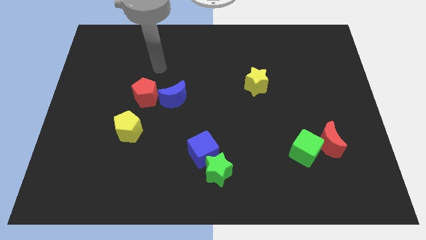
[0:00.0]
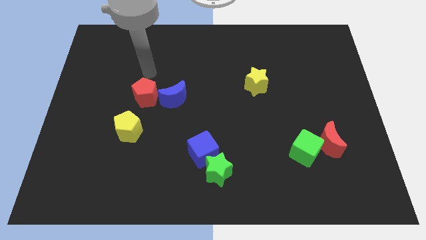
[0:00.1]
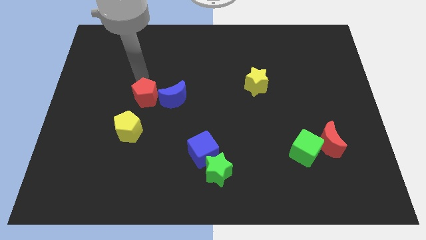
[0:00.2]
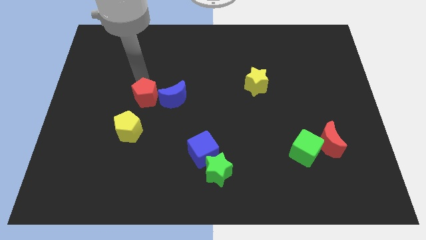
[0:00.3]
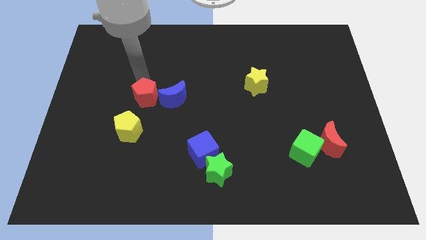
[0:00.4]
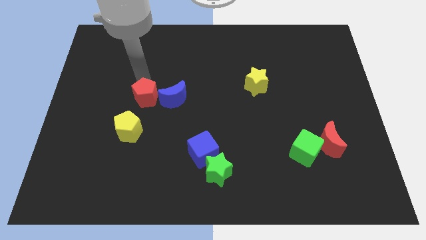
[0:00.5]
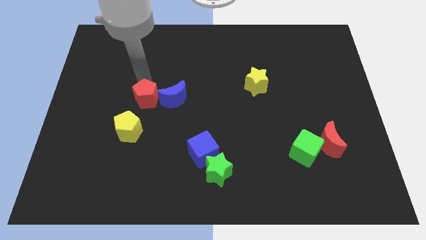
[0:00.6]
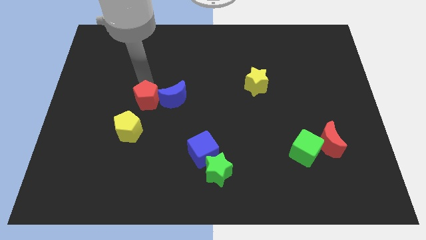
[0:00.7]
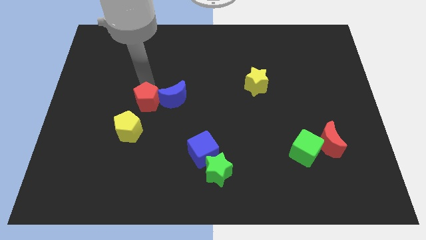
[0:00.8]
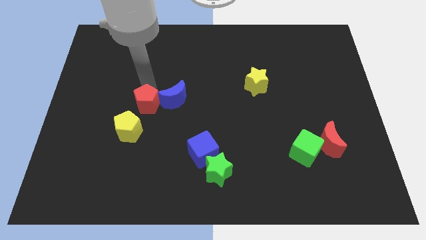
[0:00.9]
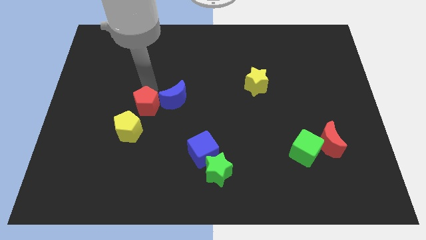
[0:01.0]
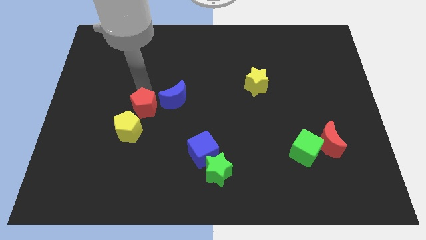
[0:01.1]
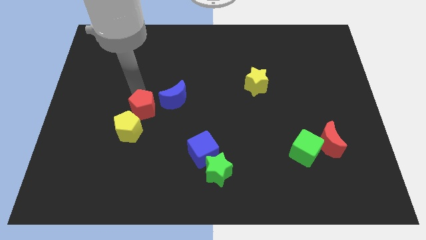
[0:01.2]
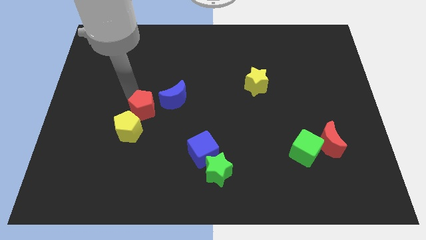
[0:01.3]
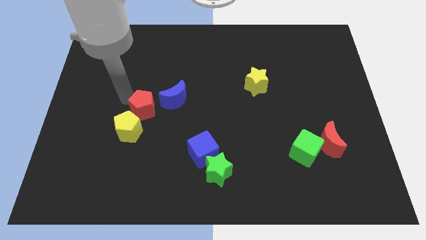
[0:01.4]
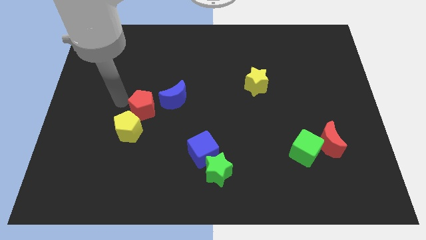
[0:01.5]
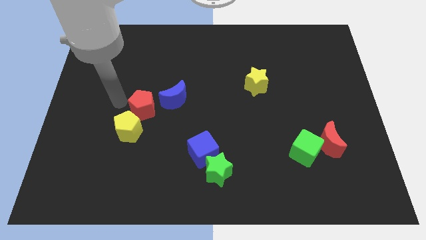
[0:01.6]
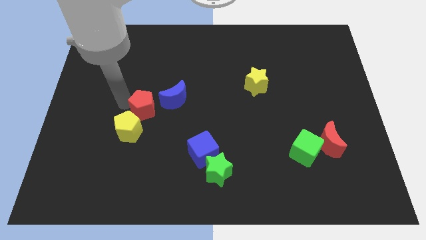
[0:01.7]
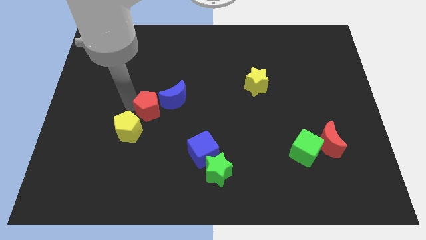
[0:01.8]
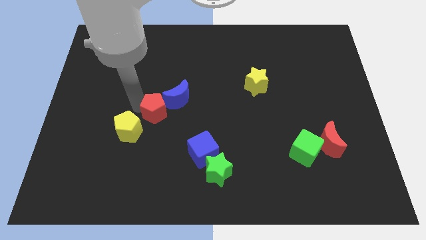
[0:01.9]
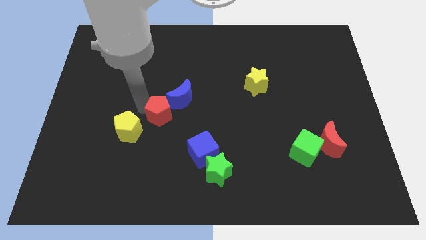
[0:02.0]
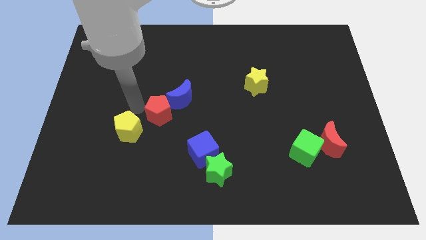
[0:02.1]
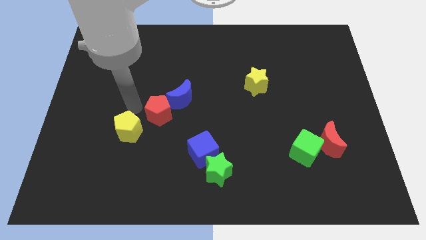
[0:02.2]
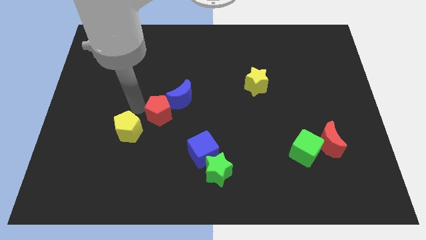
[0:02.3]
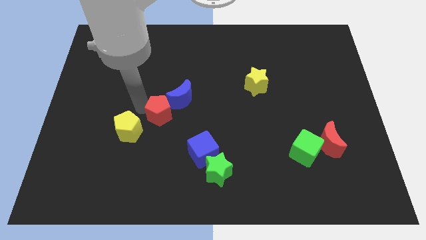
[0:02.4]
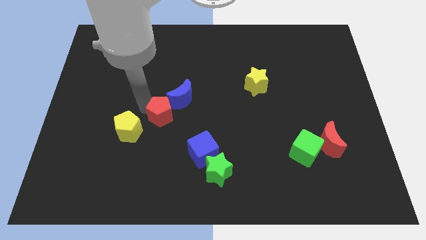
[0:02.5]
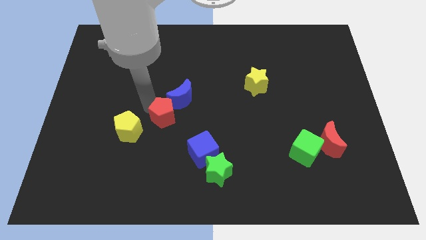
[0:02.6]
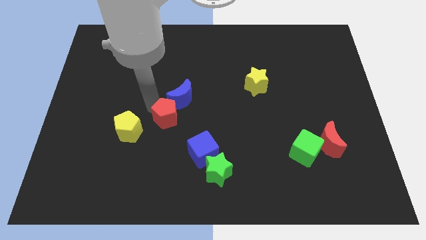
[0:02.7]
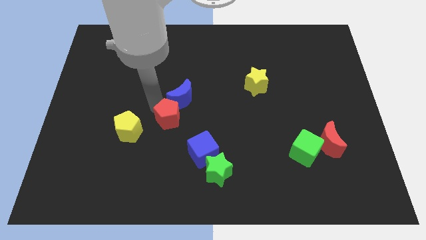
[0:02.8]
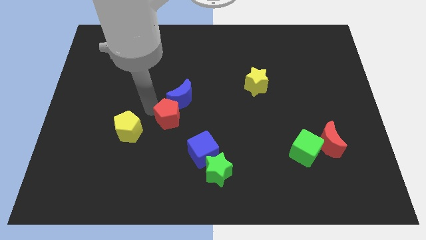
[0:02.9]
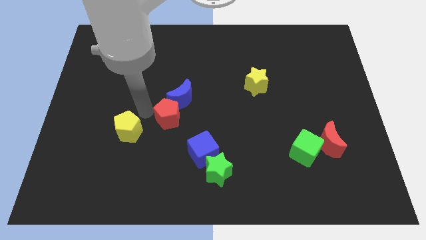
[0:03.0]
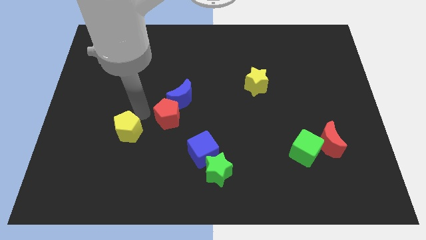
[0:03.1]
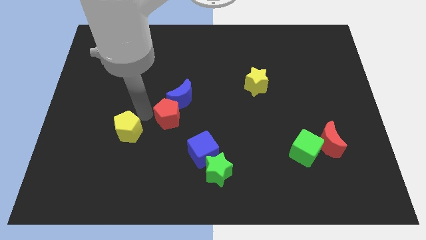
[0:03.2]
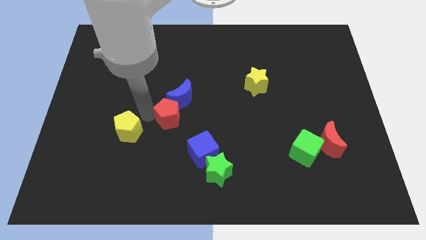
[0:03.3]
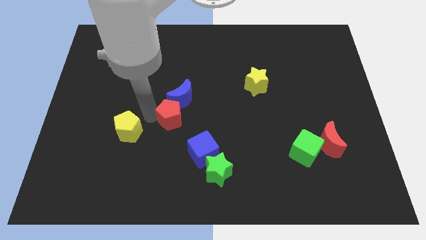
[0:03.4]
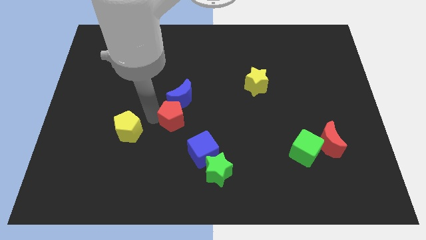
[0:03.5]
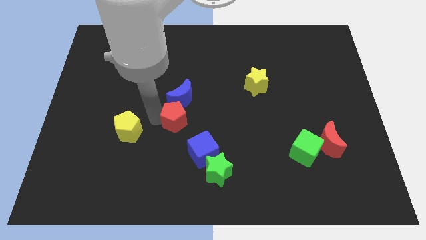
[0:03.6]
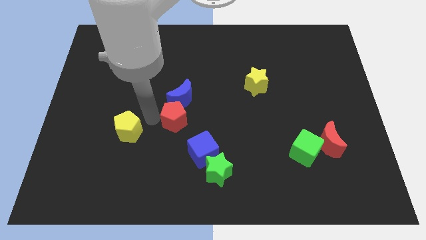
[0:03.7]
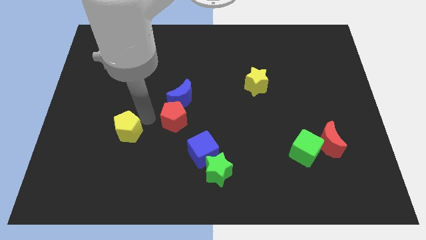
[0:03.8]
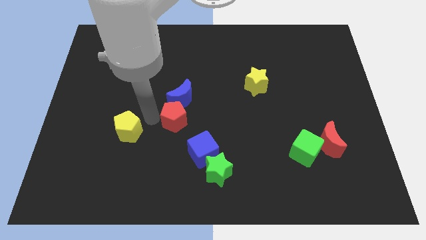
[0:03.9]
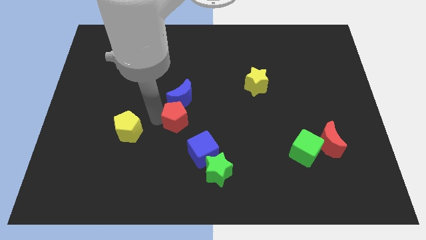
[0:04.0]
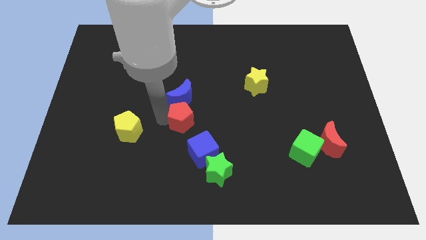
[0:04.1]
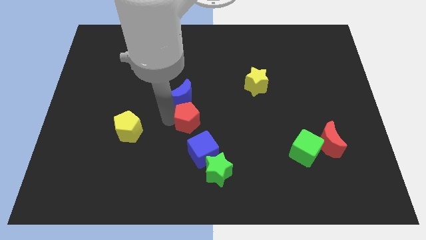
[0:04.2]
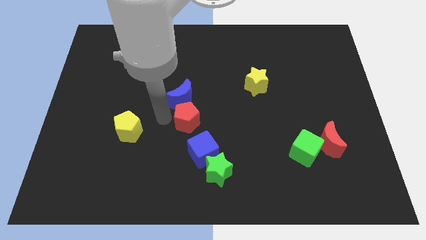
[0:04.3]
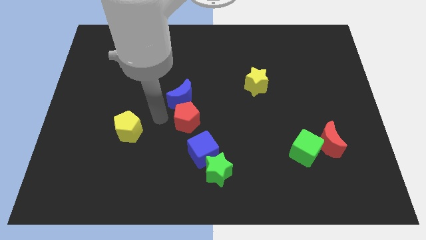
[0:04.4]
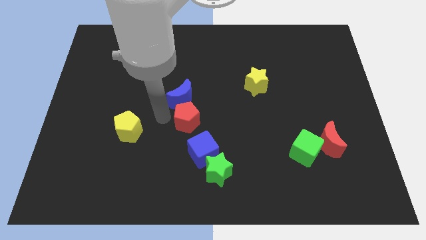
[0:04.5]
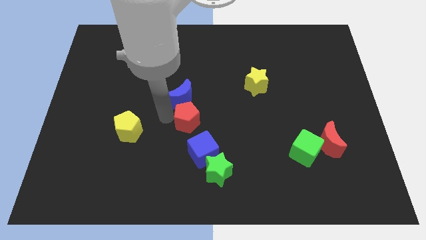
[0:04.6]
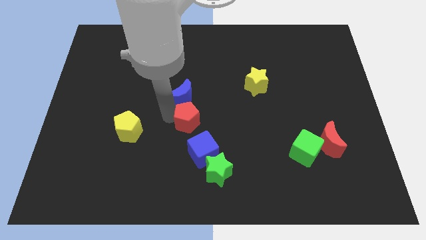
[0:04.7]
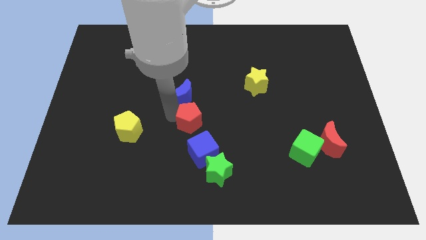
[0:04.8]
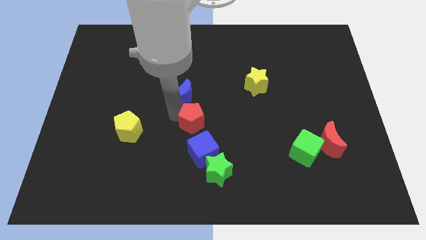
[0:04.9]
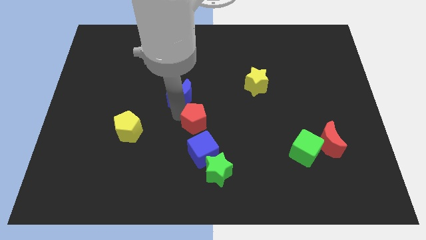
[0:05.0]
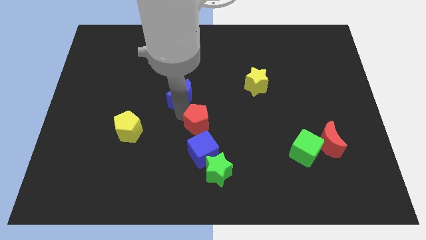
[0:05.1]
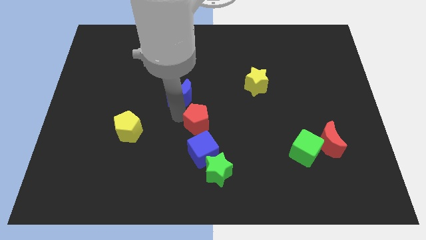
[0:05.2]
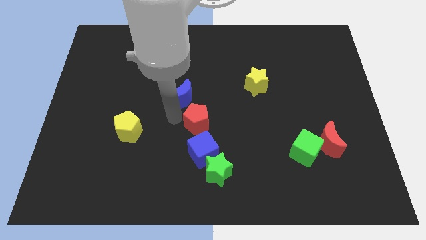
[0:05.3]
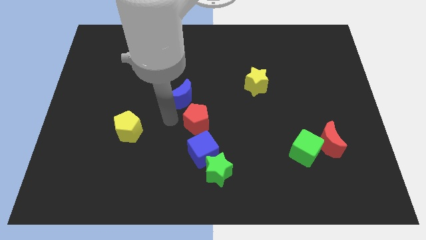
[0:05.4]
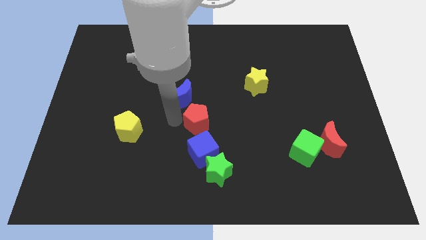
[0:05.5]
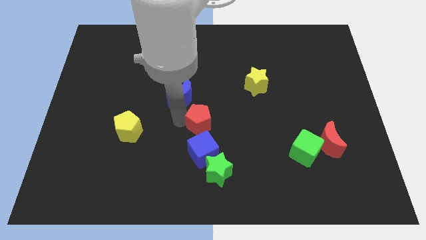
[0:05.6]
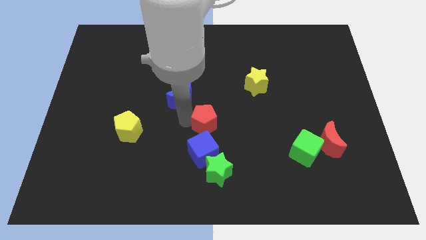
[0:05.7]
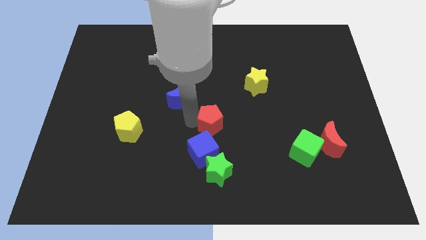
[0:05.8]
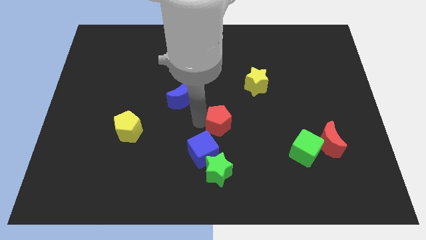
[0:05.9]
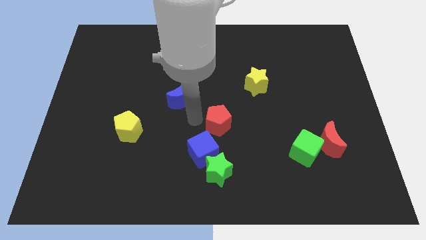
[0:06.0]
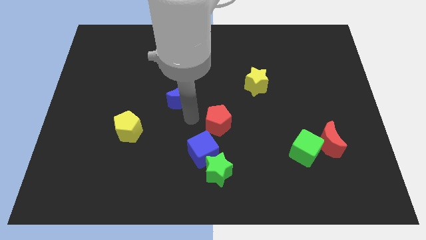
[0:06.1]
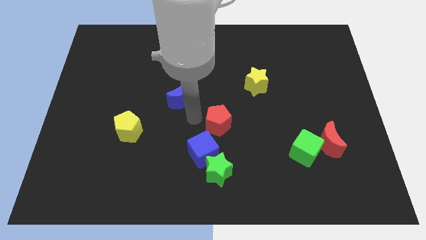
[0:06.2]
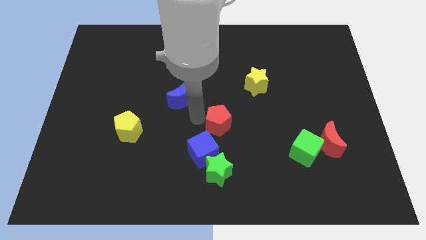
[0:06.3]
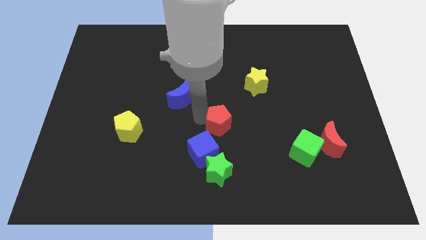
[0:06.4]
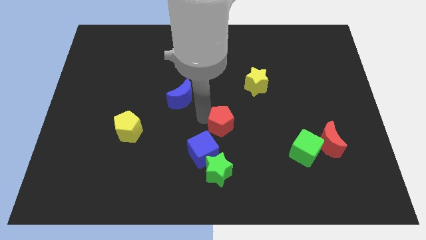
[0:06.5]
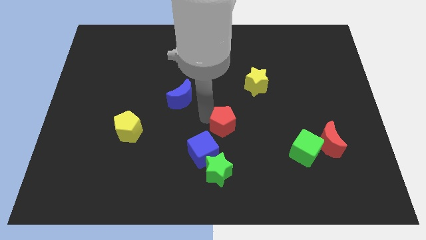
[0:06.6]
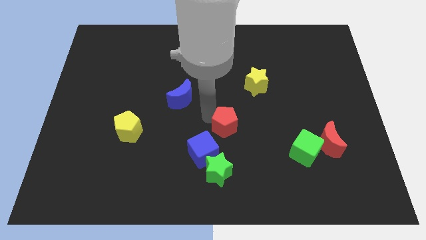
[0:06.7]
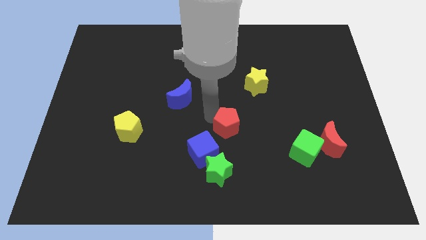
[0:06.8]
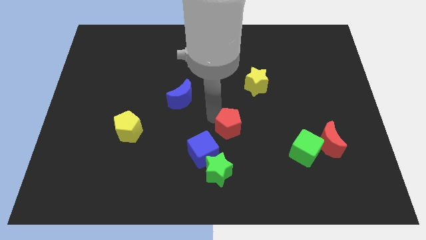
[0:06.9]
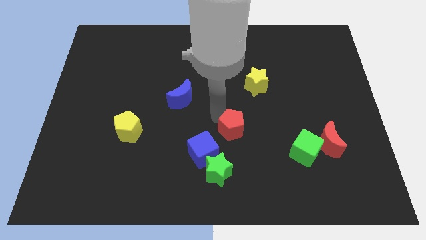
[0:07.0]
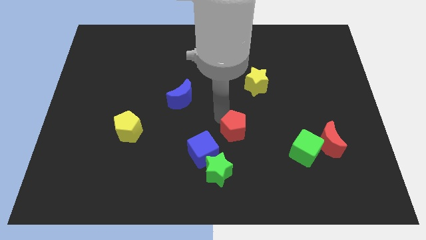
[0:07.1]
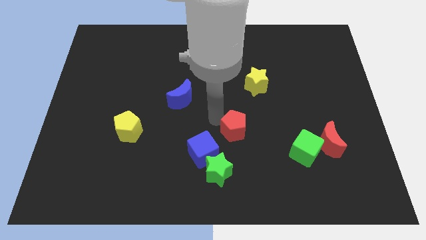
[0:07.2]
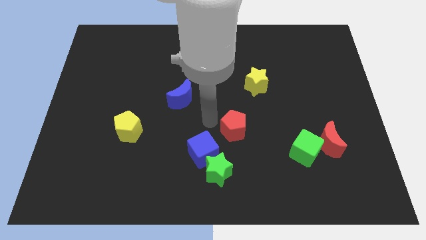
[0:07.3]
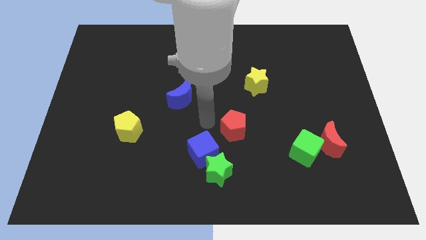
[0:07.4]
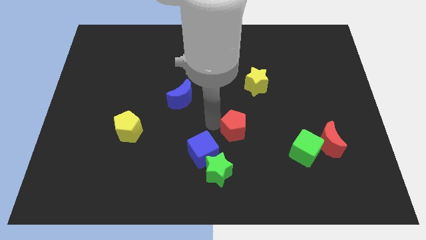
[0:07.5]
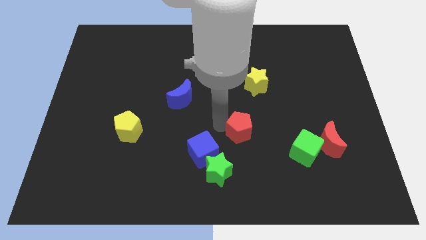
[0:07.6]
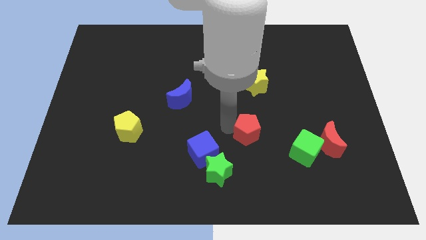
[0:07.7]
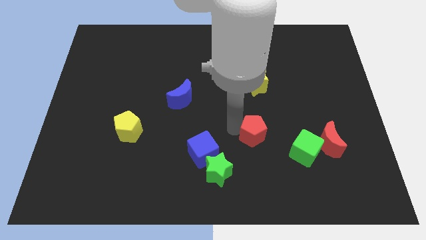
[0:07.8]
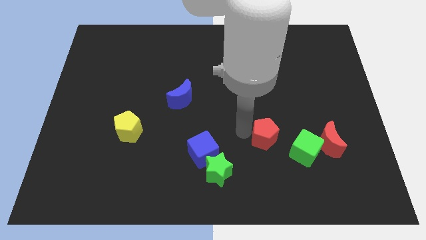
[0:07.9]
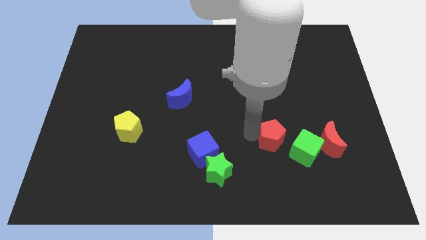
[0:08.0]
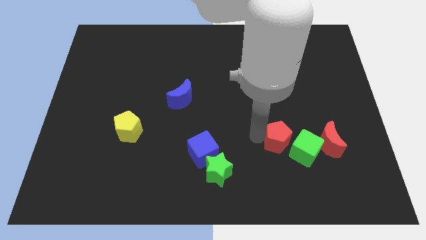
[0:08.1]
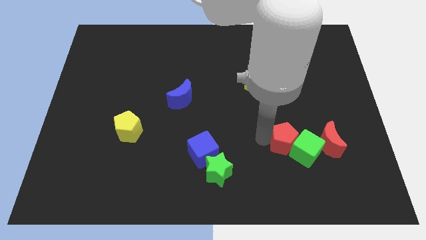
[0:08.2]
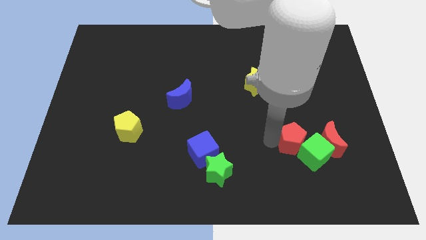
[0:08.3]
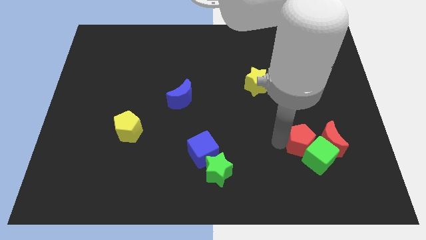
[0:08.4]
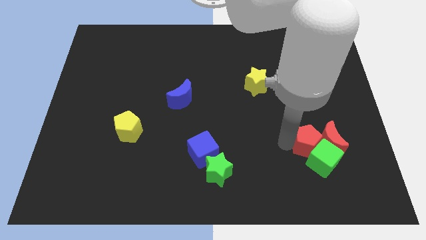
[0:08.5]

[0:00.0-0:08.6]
put the red pentagon close to the red moon
